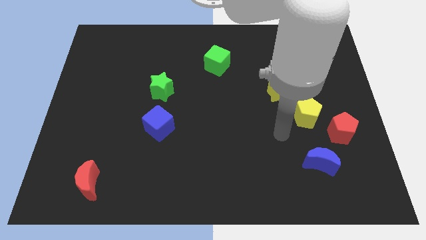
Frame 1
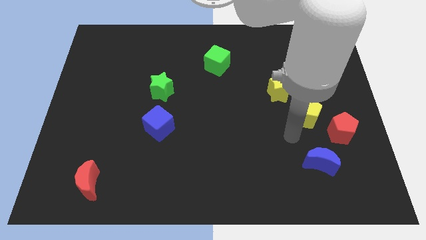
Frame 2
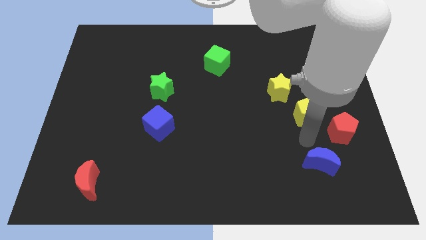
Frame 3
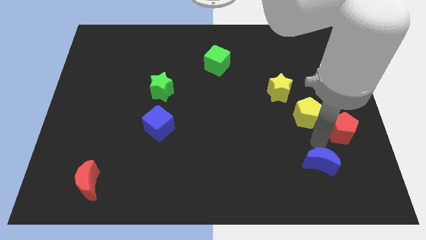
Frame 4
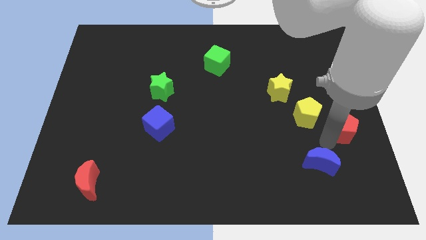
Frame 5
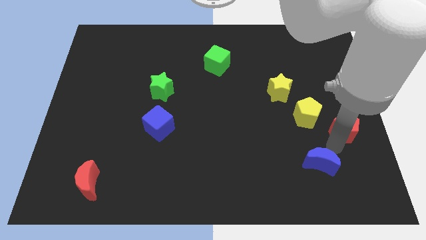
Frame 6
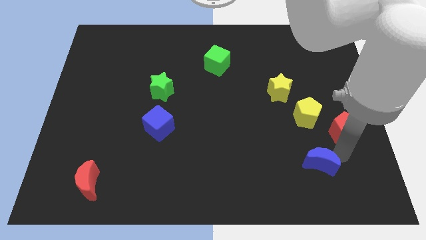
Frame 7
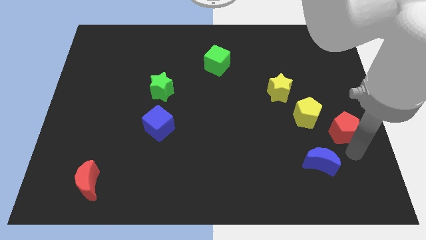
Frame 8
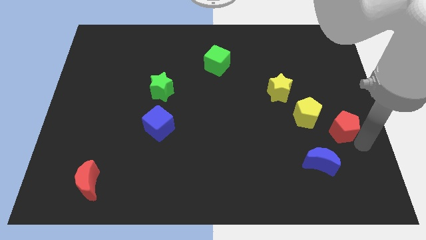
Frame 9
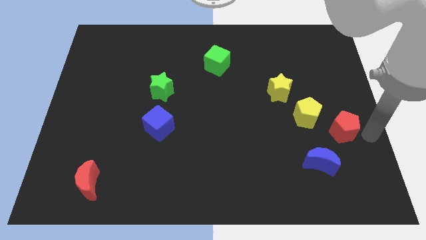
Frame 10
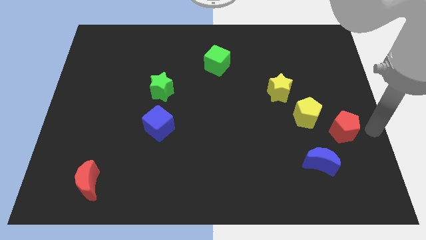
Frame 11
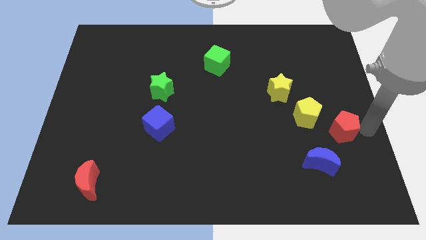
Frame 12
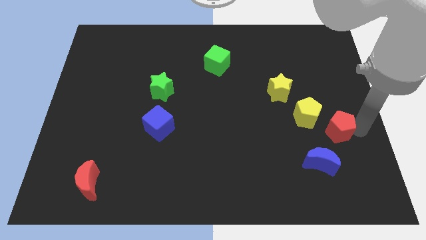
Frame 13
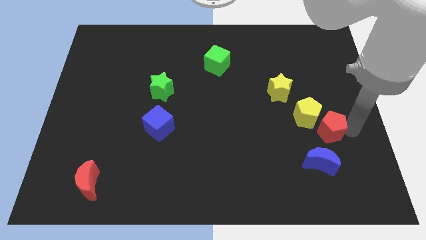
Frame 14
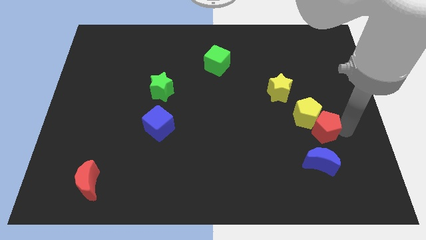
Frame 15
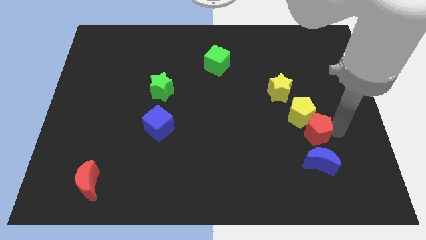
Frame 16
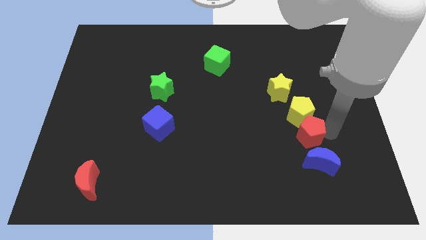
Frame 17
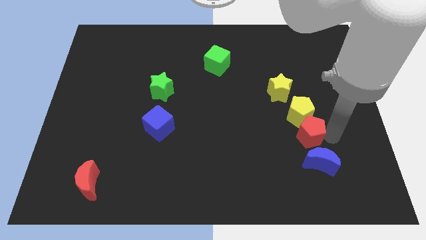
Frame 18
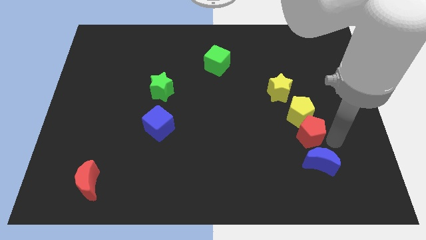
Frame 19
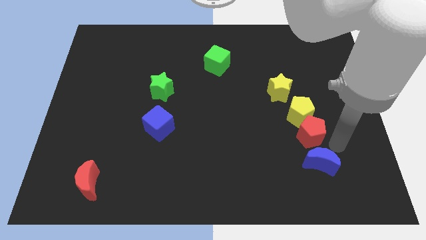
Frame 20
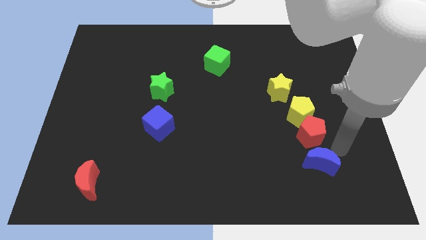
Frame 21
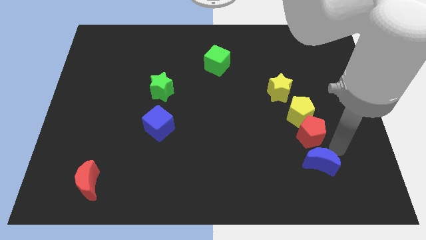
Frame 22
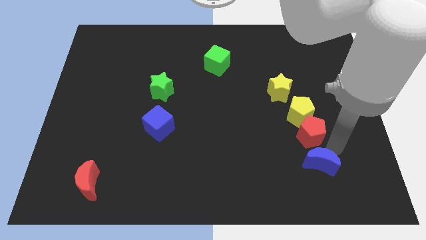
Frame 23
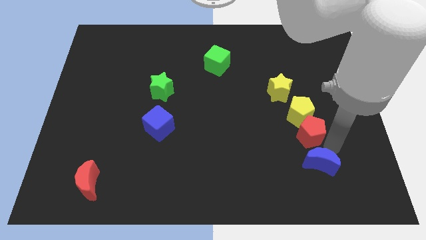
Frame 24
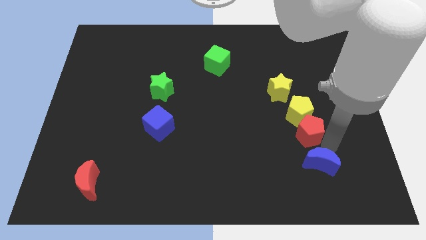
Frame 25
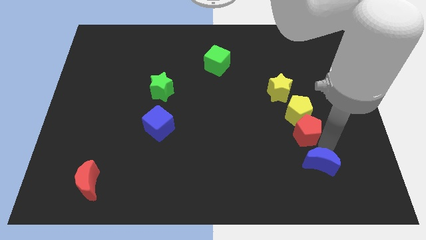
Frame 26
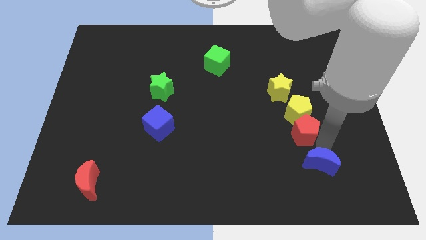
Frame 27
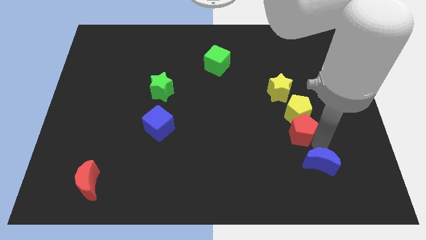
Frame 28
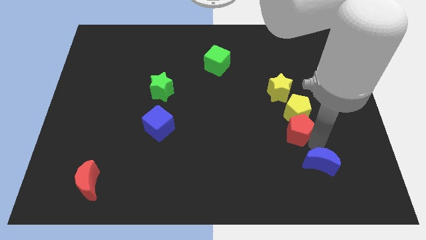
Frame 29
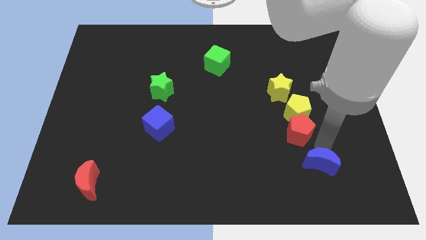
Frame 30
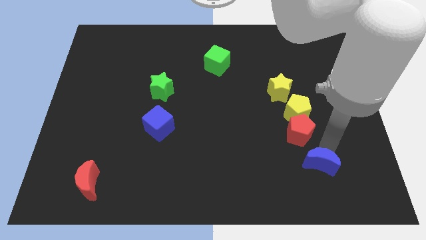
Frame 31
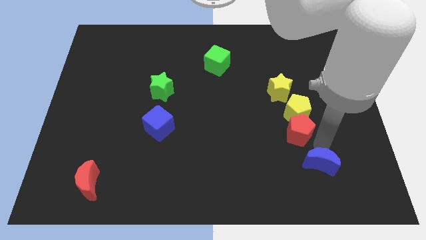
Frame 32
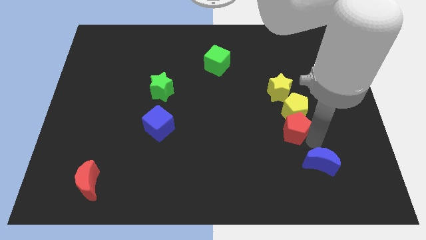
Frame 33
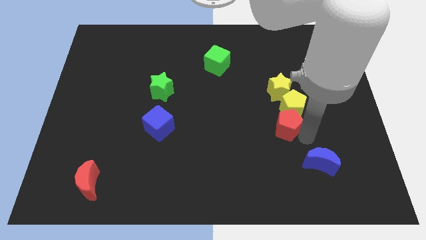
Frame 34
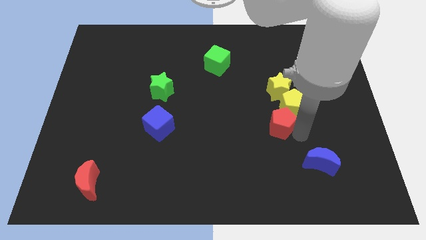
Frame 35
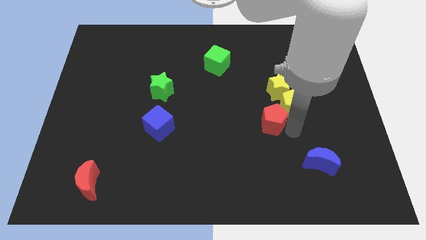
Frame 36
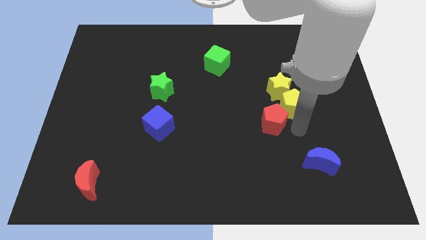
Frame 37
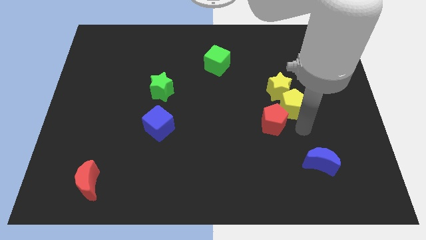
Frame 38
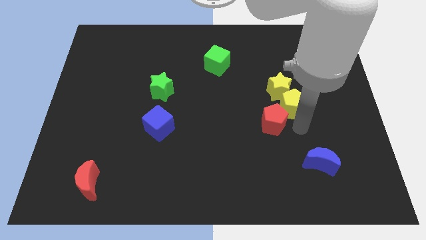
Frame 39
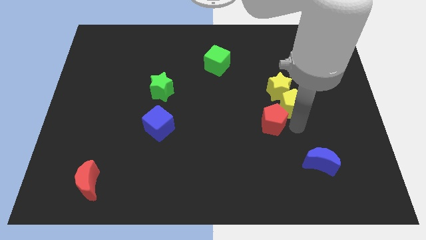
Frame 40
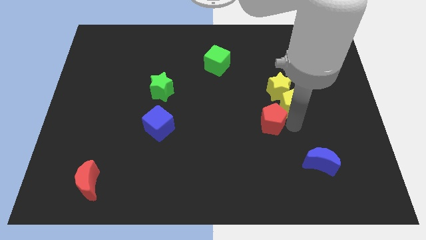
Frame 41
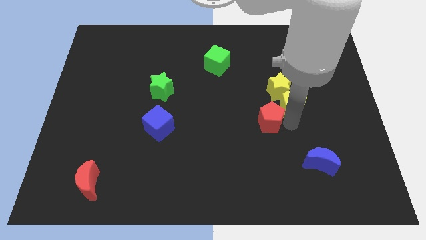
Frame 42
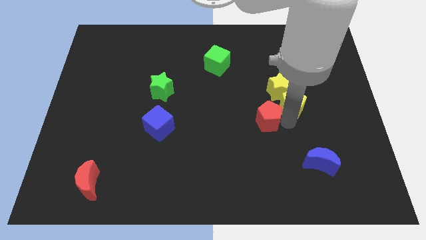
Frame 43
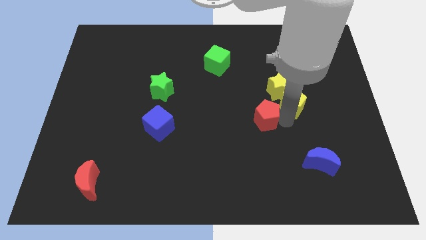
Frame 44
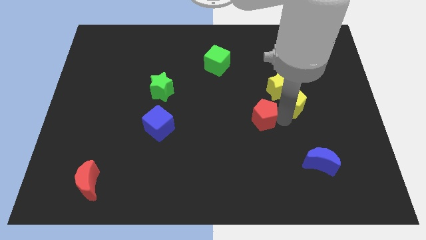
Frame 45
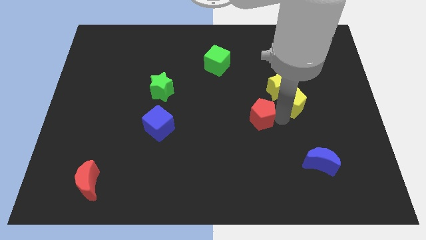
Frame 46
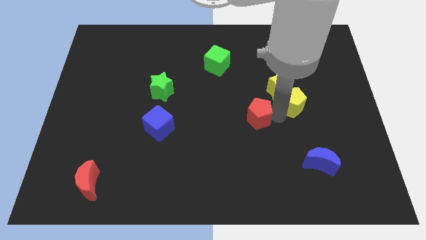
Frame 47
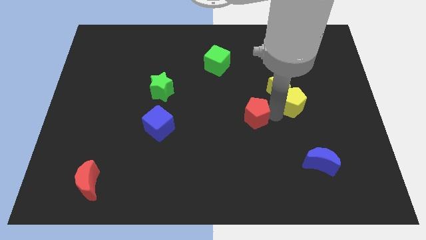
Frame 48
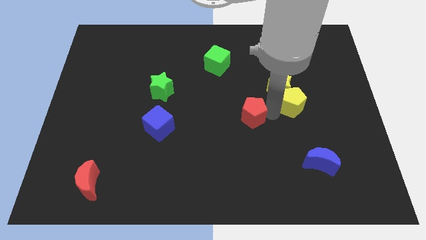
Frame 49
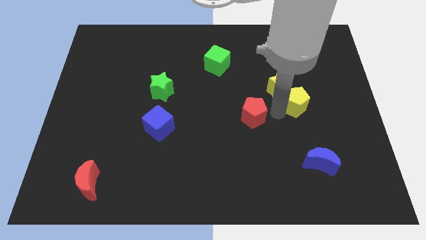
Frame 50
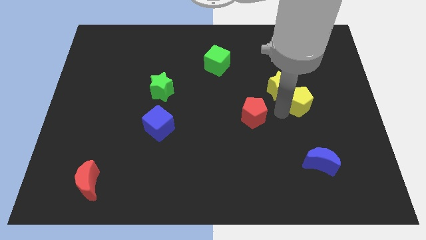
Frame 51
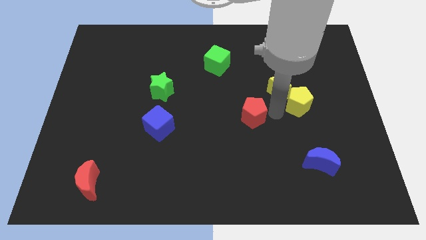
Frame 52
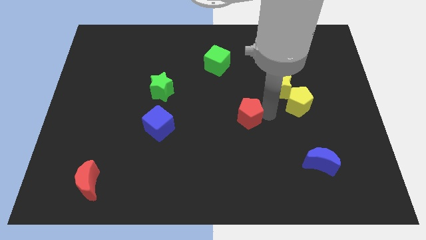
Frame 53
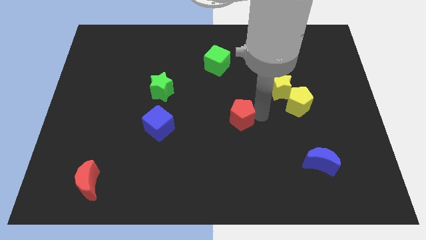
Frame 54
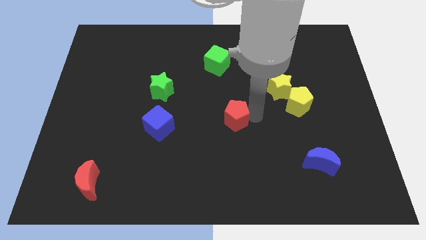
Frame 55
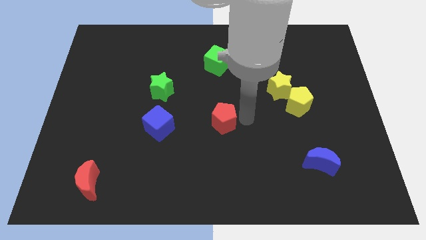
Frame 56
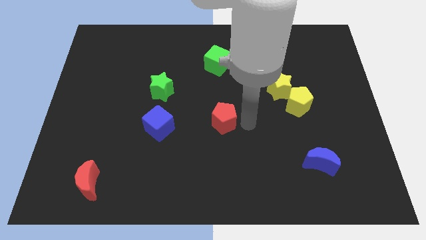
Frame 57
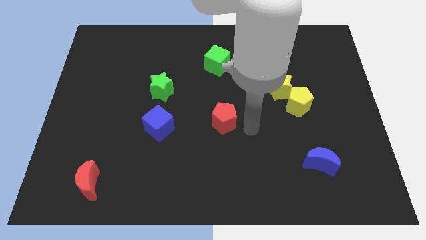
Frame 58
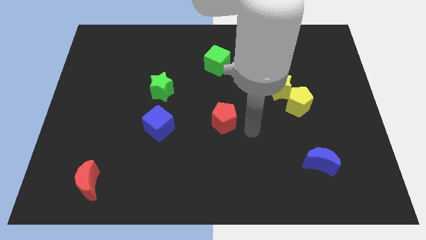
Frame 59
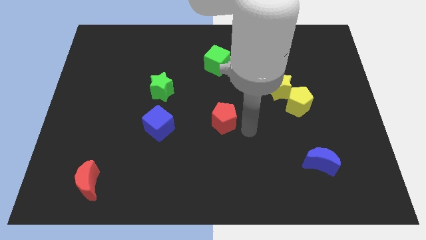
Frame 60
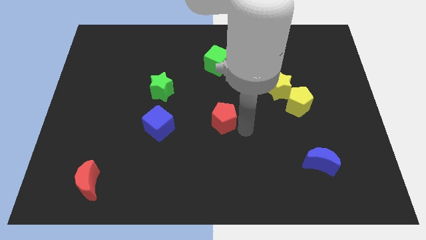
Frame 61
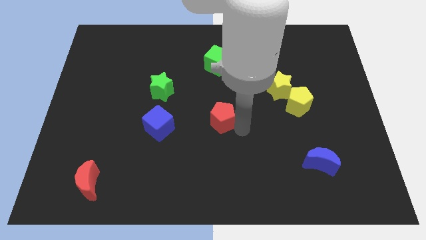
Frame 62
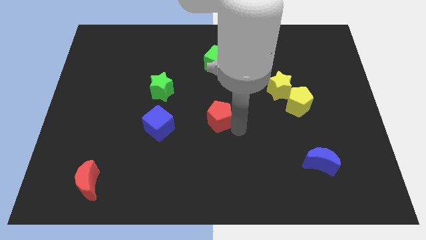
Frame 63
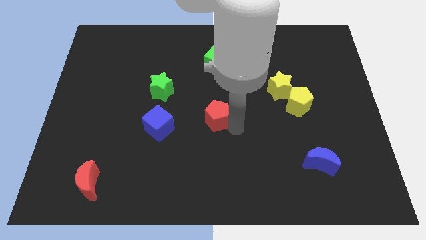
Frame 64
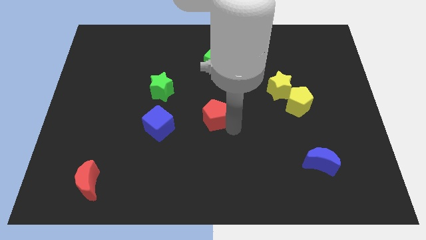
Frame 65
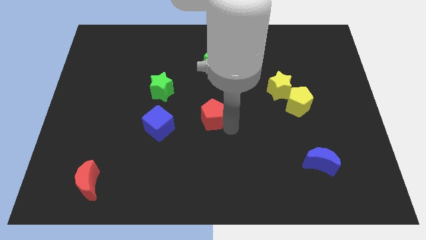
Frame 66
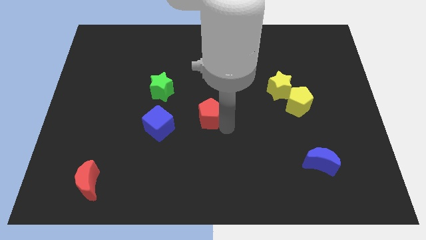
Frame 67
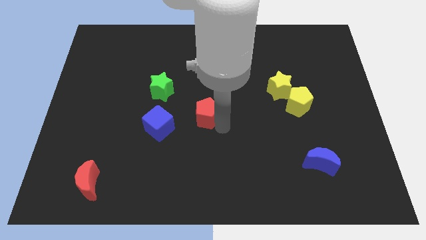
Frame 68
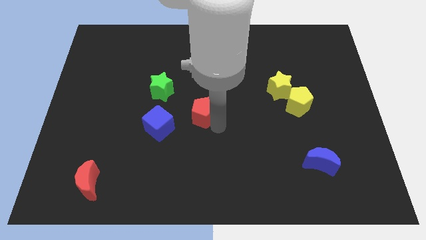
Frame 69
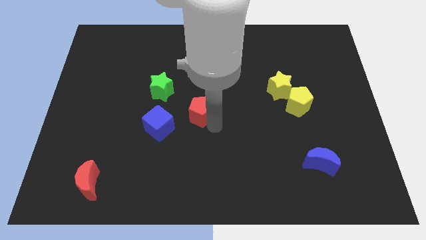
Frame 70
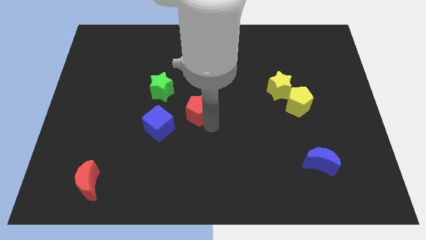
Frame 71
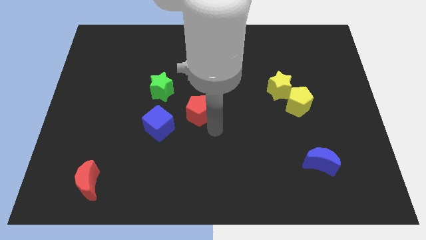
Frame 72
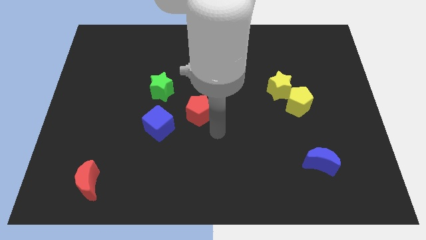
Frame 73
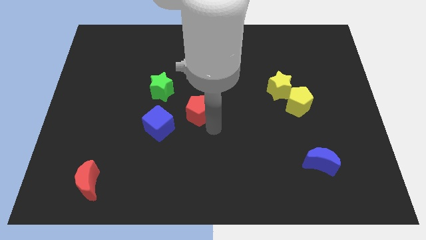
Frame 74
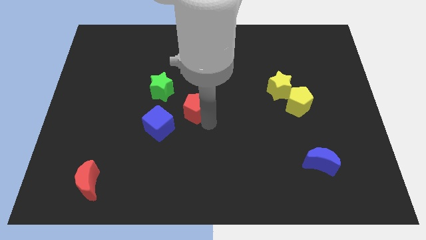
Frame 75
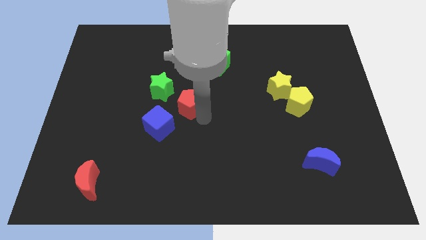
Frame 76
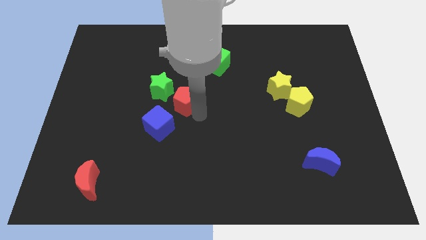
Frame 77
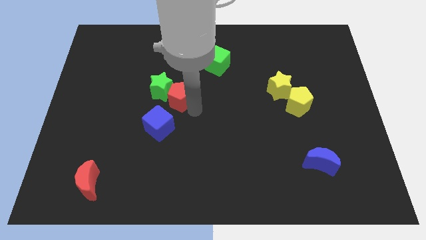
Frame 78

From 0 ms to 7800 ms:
push the red pentagon to the green star
